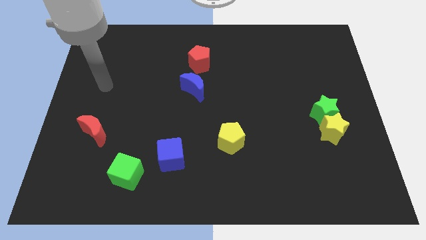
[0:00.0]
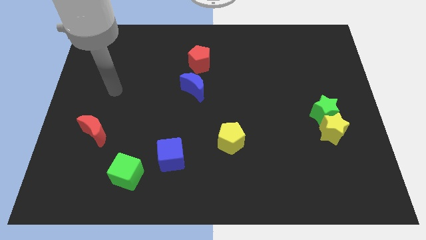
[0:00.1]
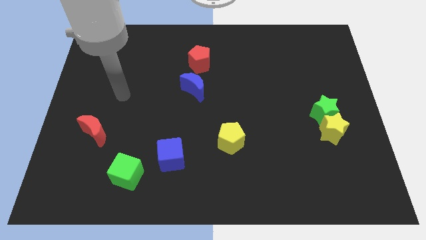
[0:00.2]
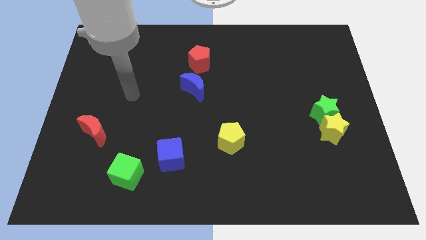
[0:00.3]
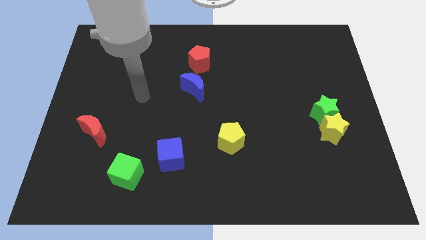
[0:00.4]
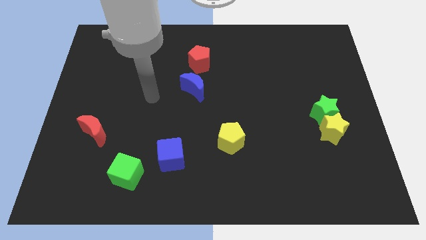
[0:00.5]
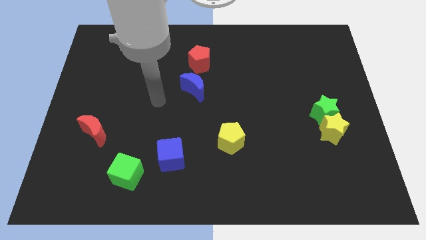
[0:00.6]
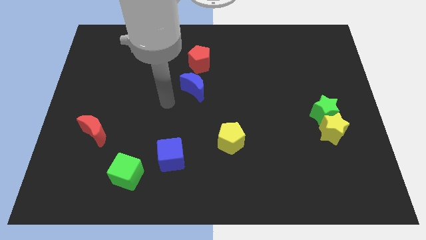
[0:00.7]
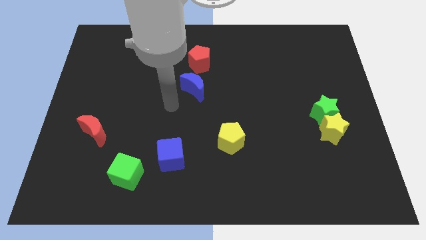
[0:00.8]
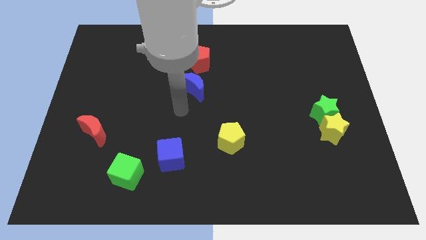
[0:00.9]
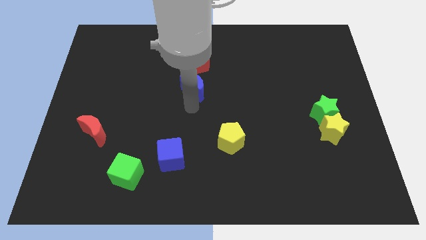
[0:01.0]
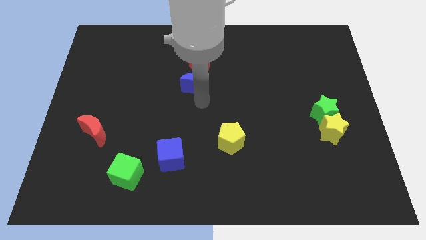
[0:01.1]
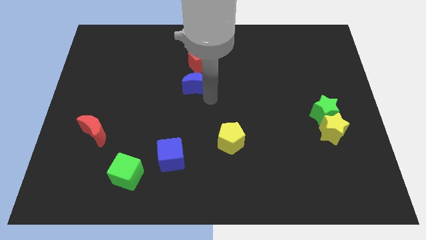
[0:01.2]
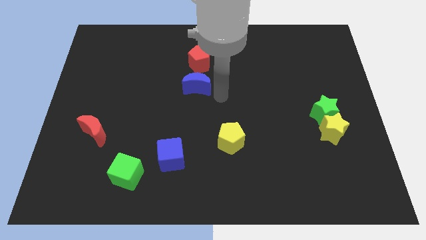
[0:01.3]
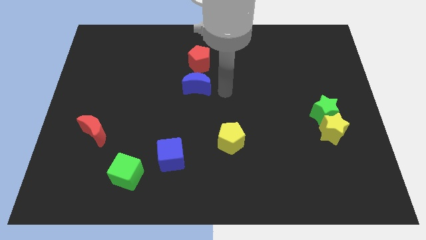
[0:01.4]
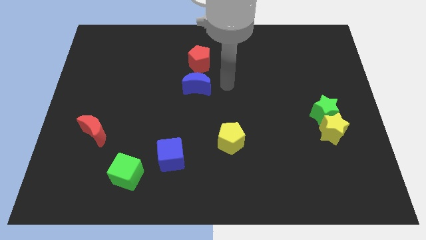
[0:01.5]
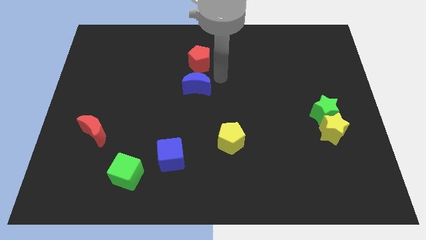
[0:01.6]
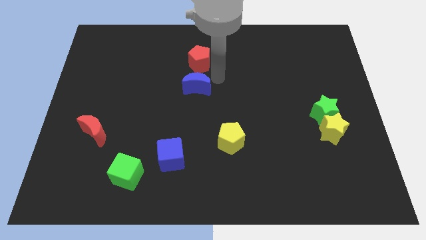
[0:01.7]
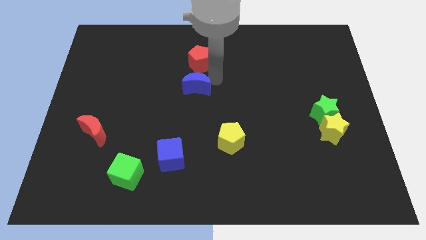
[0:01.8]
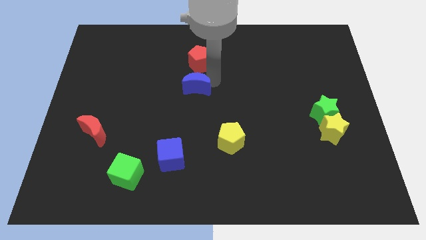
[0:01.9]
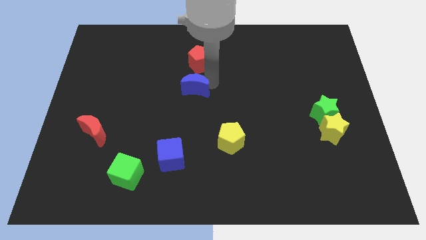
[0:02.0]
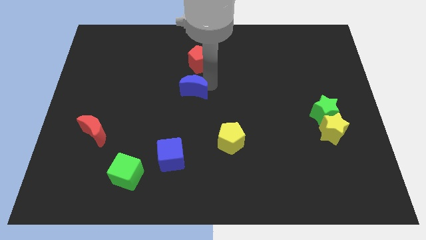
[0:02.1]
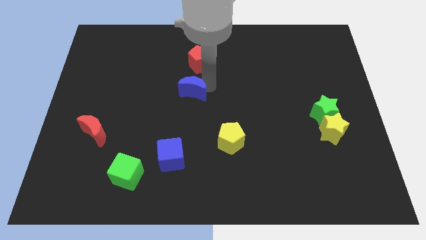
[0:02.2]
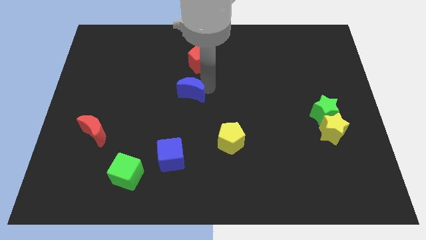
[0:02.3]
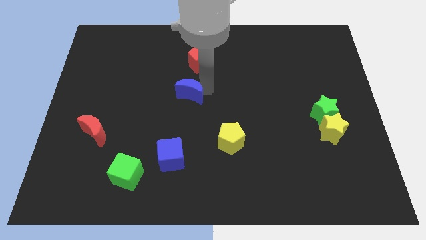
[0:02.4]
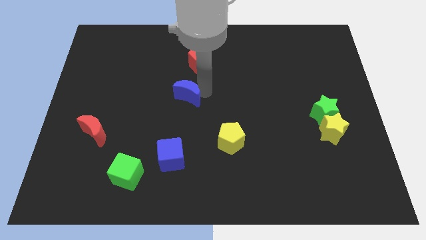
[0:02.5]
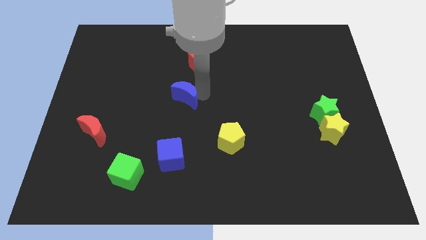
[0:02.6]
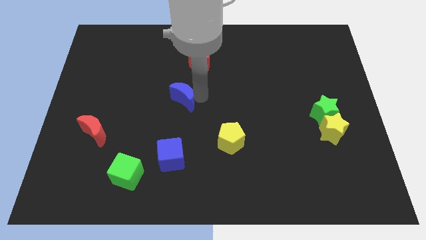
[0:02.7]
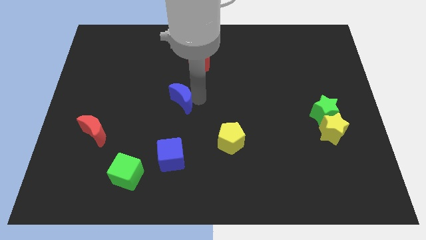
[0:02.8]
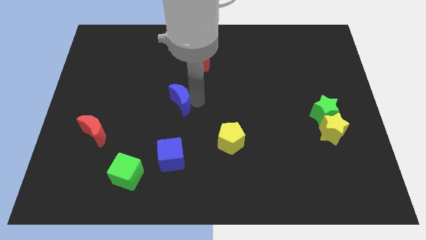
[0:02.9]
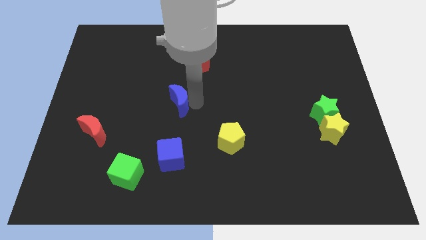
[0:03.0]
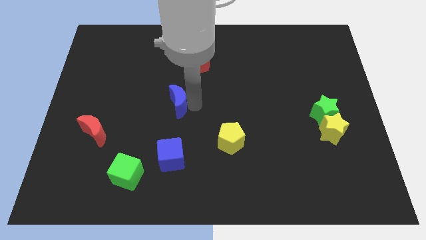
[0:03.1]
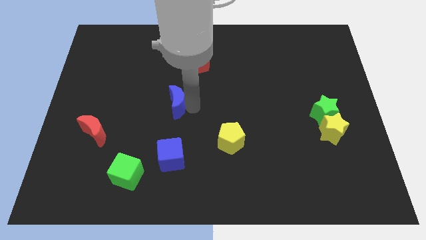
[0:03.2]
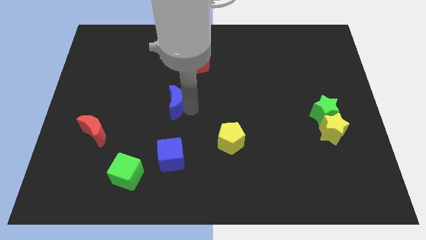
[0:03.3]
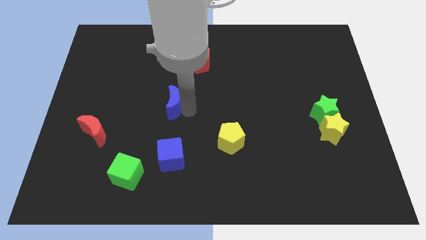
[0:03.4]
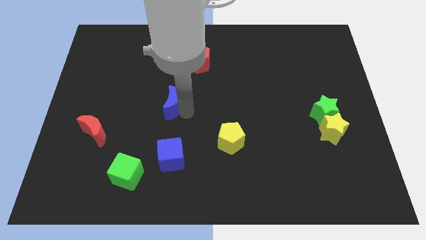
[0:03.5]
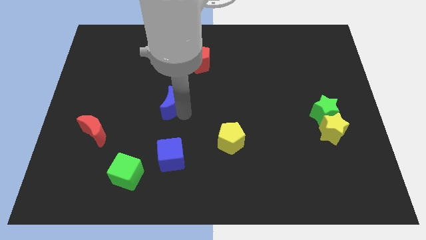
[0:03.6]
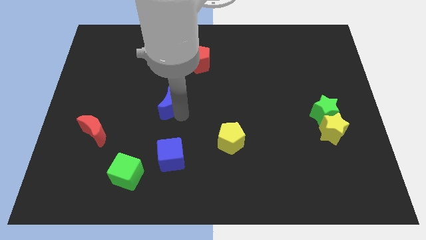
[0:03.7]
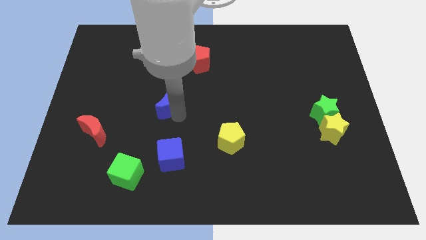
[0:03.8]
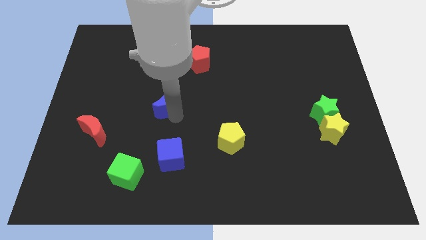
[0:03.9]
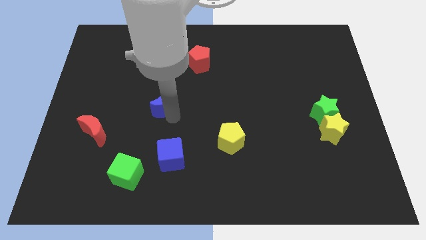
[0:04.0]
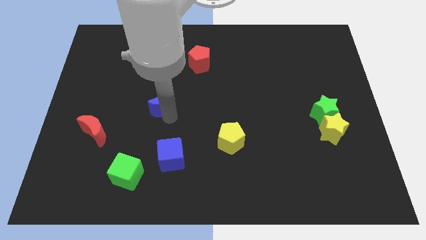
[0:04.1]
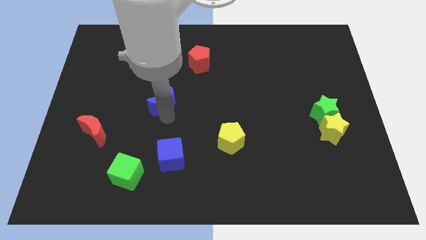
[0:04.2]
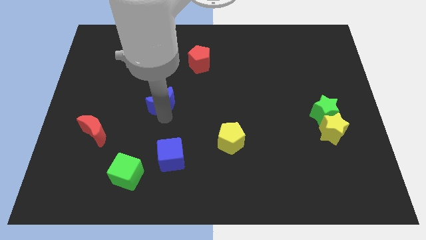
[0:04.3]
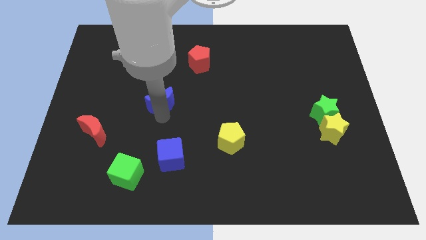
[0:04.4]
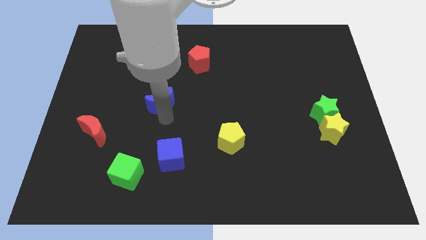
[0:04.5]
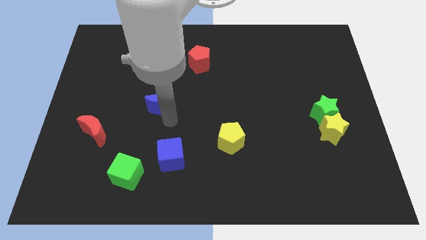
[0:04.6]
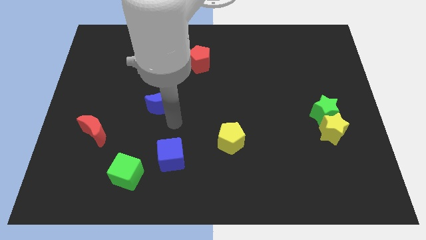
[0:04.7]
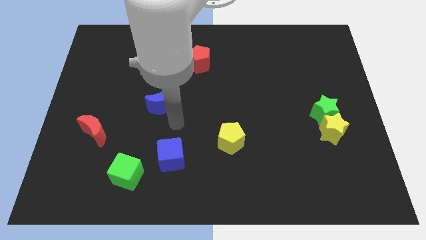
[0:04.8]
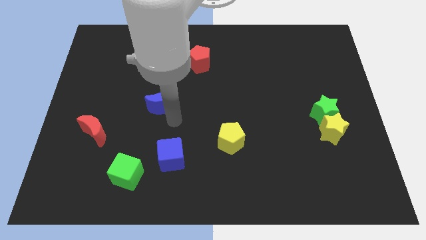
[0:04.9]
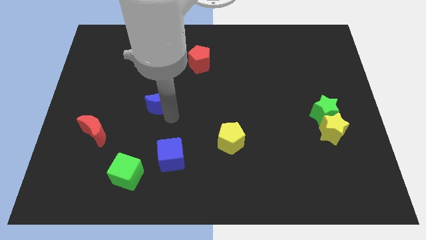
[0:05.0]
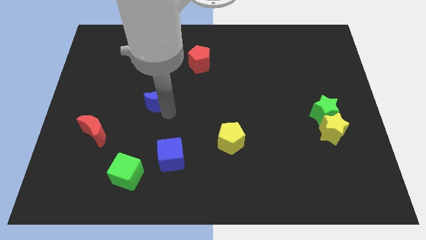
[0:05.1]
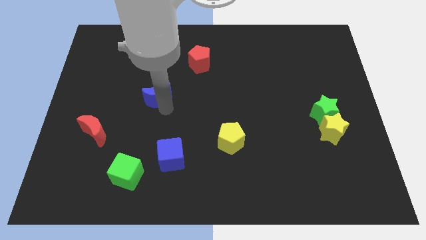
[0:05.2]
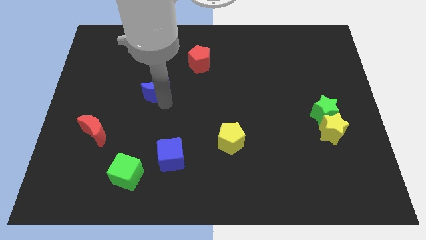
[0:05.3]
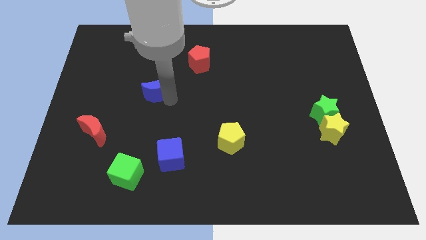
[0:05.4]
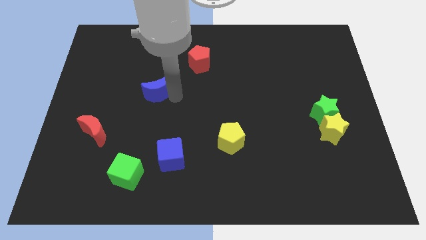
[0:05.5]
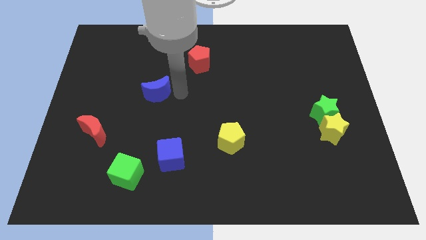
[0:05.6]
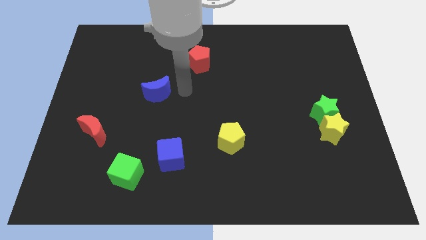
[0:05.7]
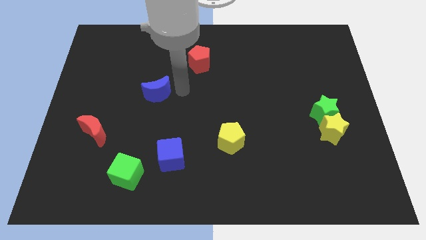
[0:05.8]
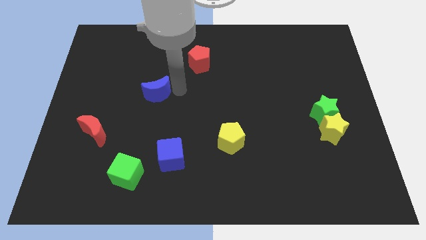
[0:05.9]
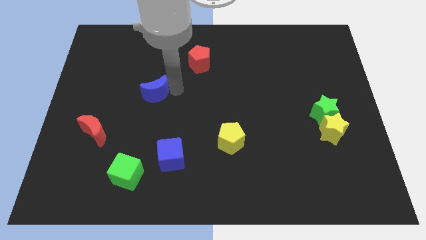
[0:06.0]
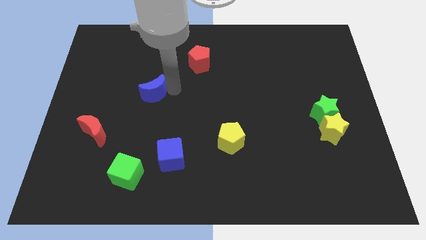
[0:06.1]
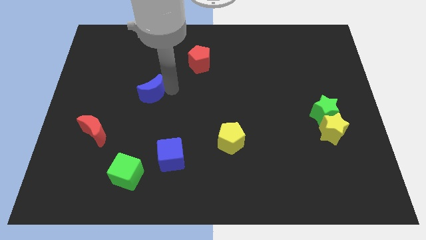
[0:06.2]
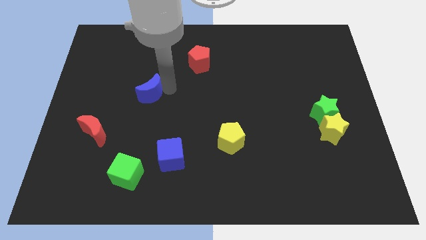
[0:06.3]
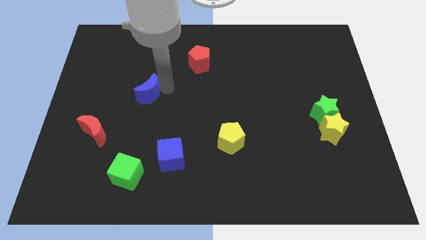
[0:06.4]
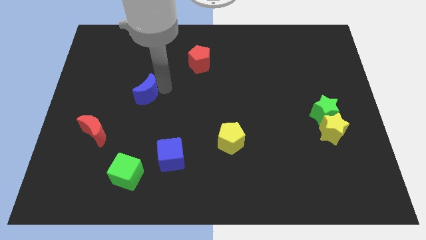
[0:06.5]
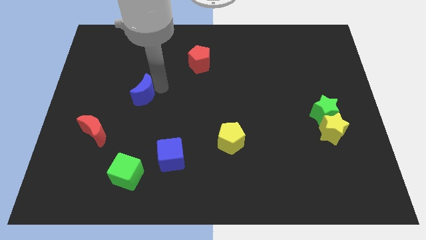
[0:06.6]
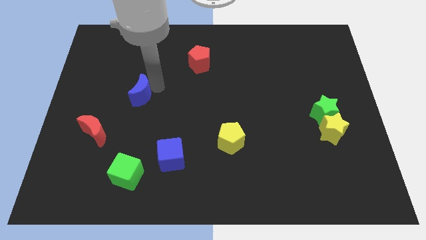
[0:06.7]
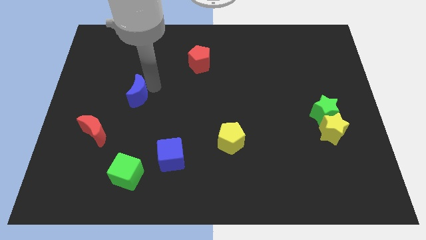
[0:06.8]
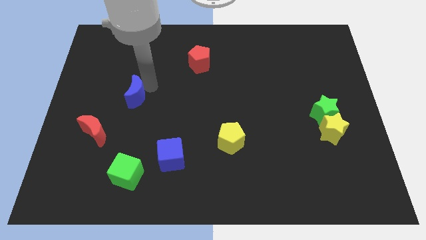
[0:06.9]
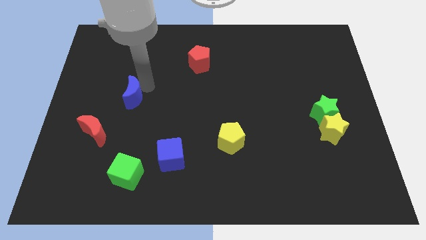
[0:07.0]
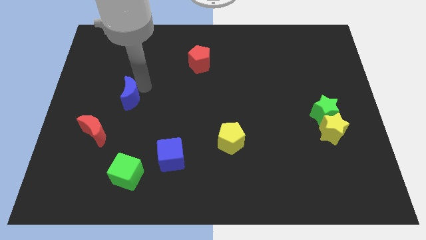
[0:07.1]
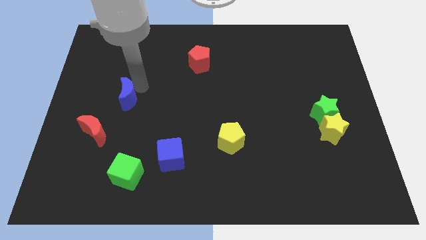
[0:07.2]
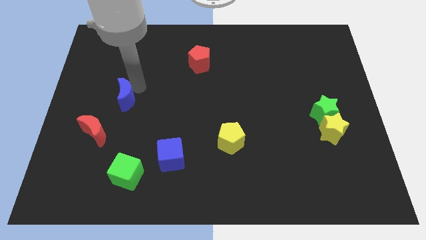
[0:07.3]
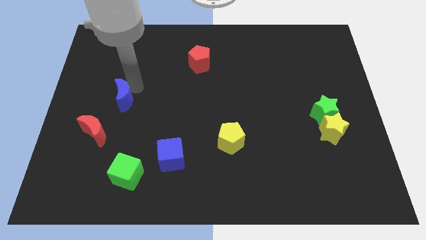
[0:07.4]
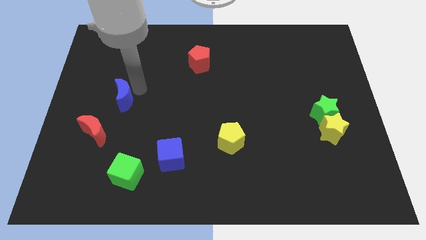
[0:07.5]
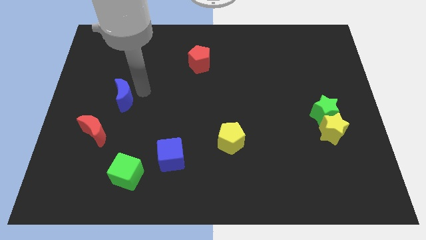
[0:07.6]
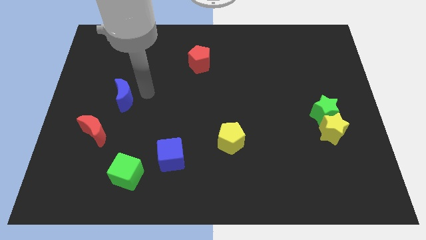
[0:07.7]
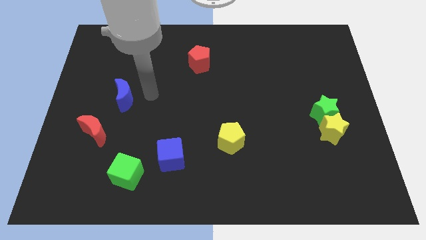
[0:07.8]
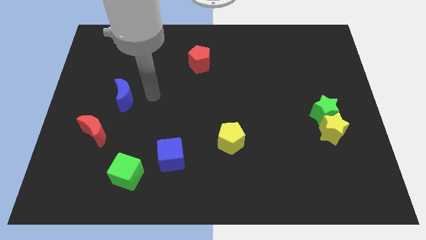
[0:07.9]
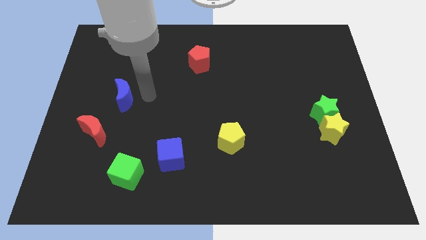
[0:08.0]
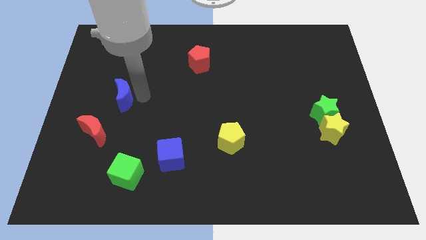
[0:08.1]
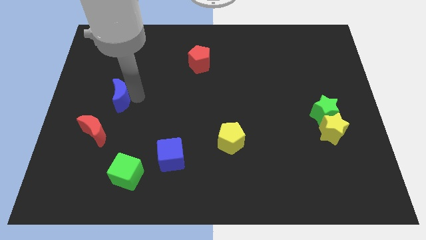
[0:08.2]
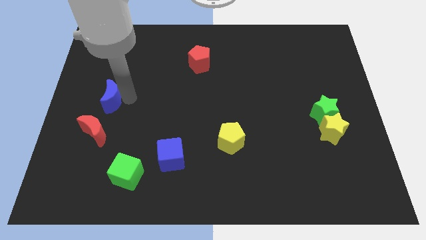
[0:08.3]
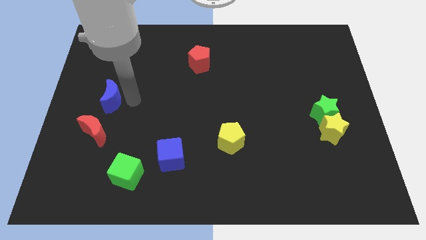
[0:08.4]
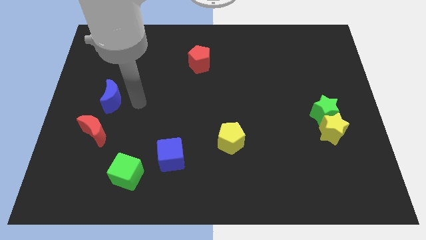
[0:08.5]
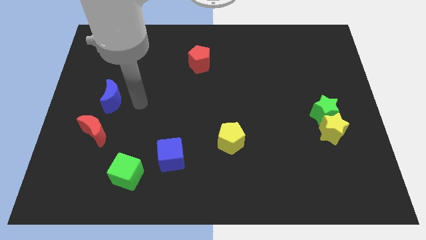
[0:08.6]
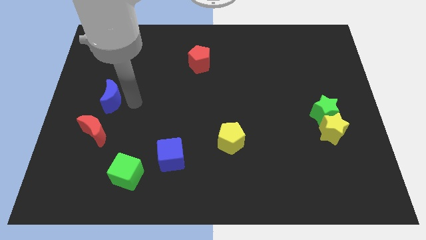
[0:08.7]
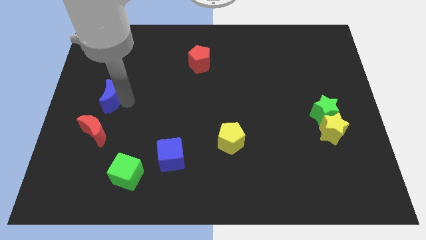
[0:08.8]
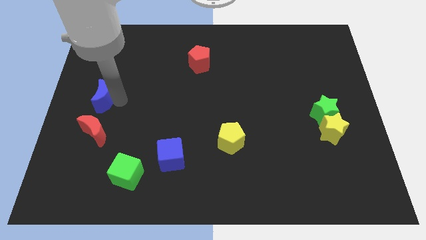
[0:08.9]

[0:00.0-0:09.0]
slide the blue moon to the center left
